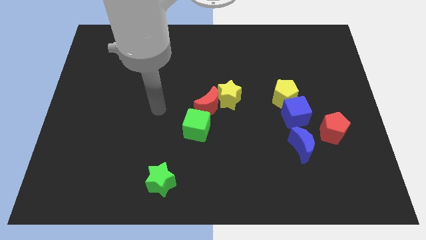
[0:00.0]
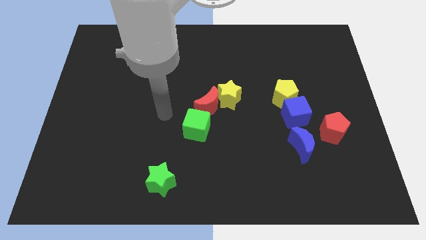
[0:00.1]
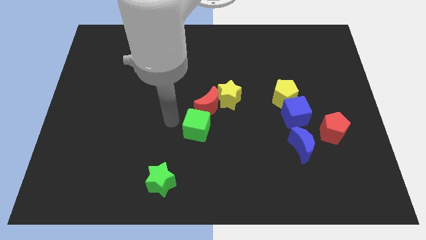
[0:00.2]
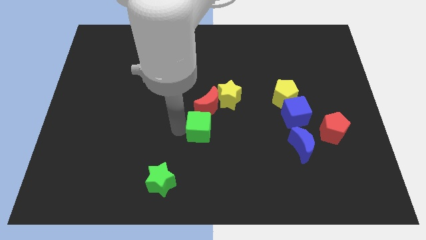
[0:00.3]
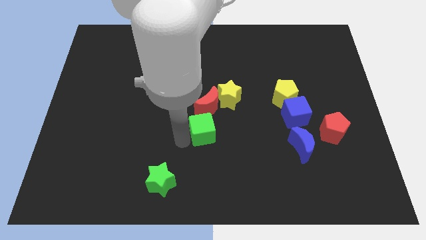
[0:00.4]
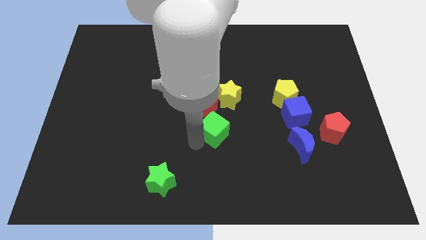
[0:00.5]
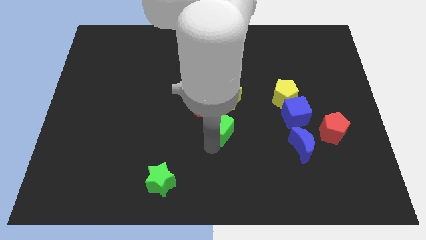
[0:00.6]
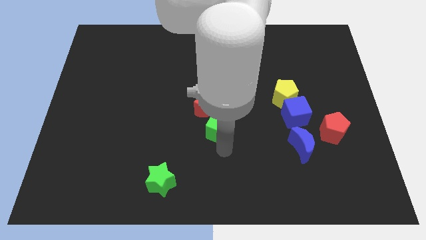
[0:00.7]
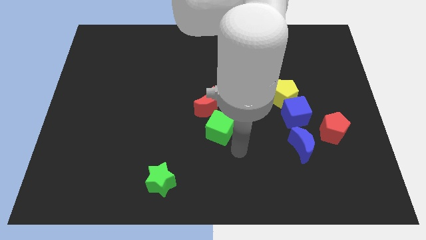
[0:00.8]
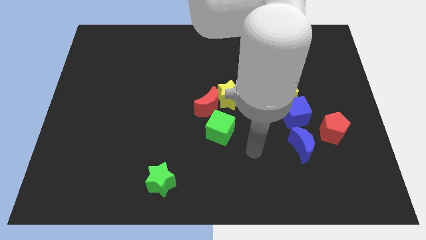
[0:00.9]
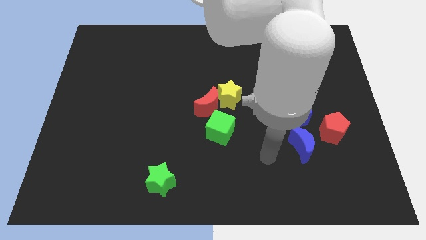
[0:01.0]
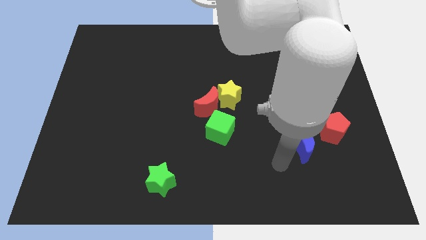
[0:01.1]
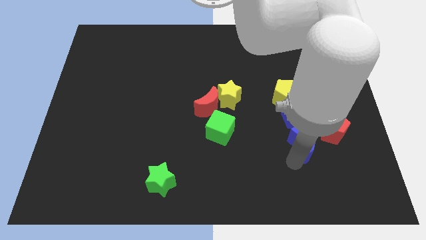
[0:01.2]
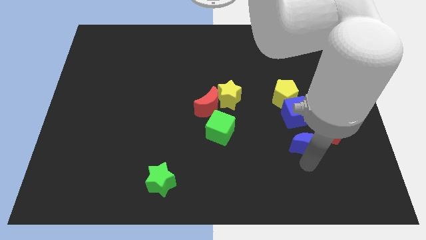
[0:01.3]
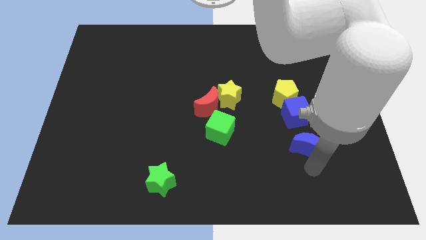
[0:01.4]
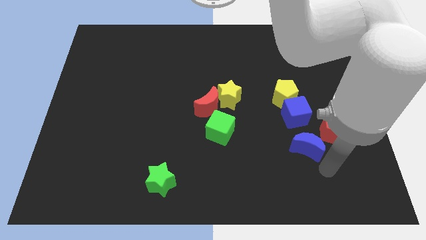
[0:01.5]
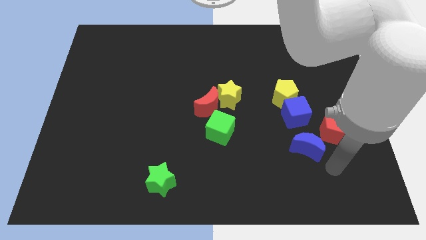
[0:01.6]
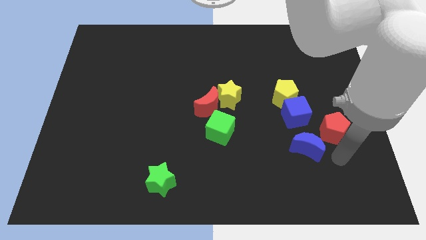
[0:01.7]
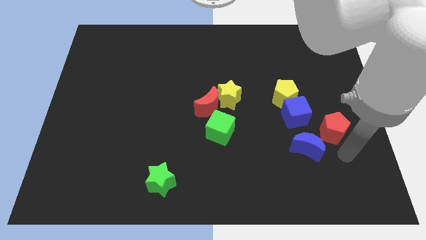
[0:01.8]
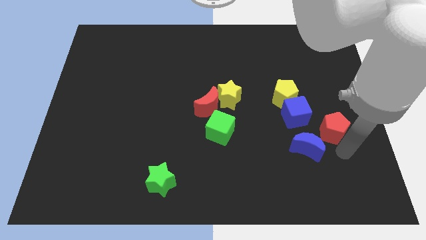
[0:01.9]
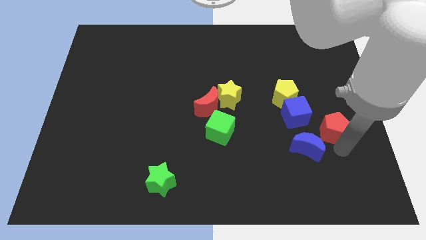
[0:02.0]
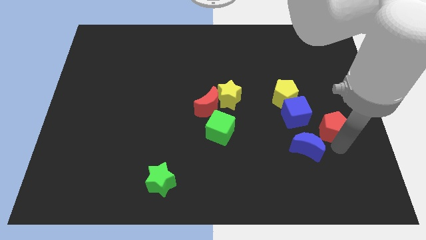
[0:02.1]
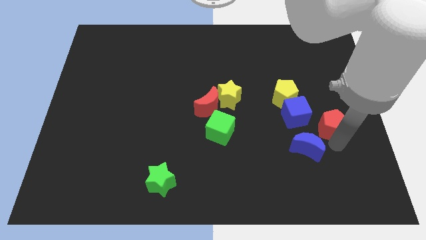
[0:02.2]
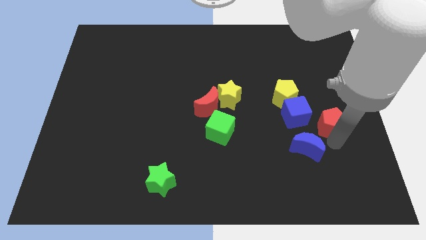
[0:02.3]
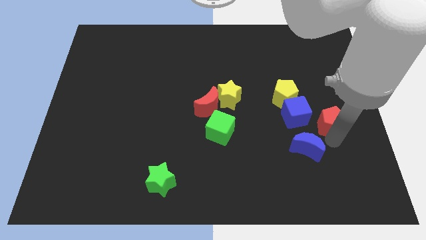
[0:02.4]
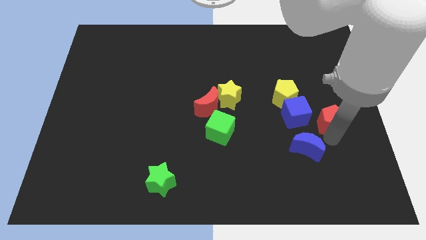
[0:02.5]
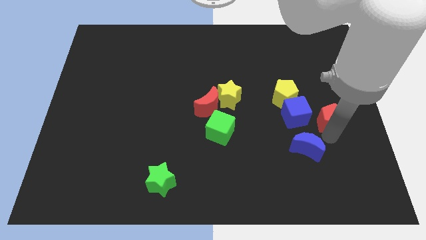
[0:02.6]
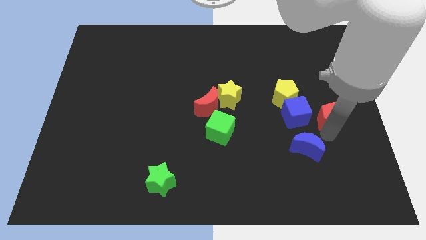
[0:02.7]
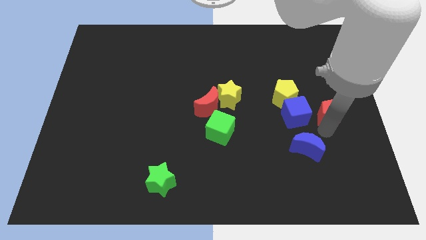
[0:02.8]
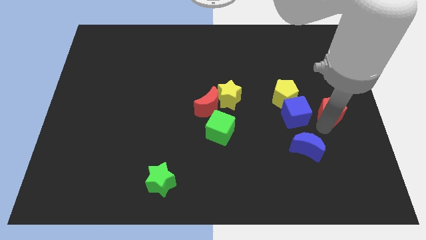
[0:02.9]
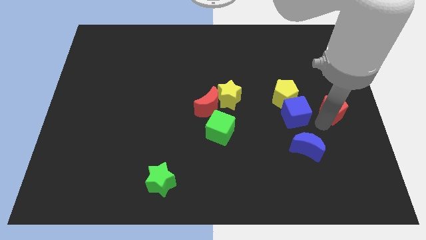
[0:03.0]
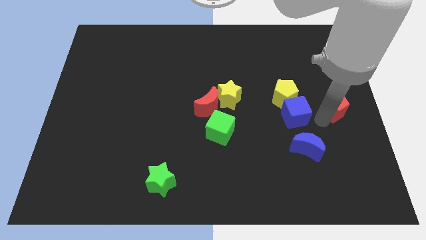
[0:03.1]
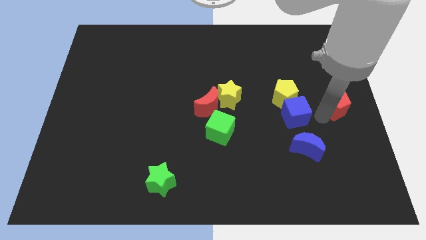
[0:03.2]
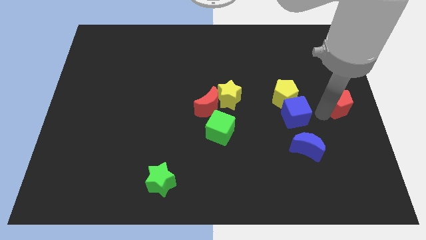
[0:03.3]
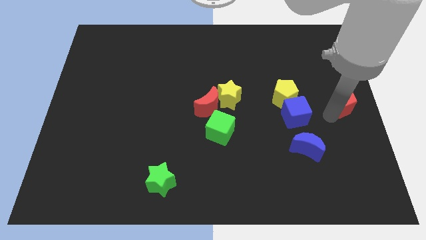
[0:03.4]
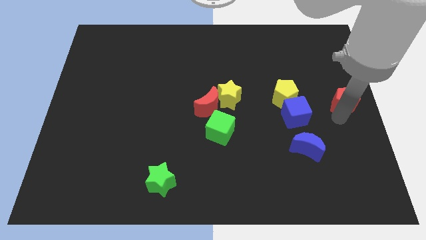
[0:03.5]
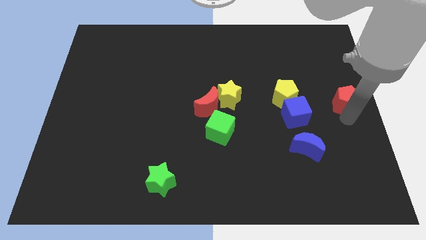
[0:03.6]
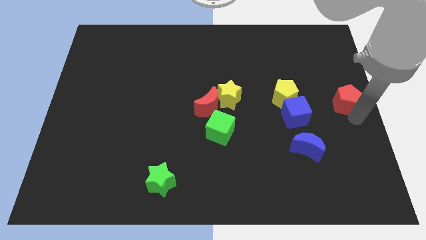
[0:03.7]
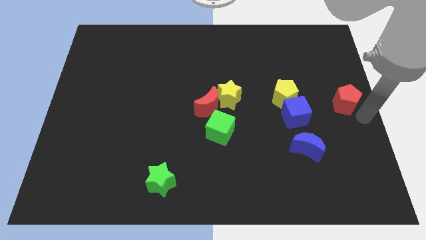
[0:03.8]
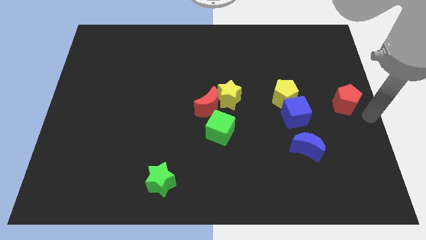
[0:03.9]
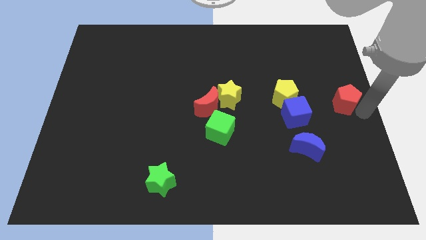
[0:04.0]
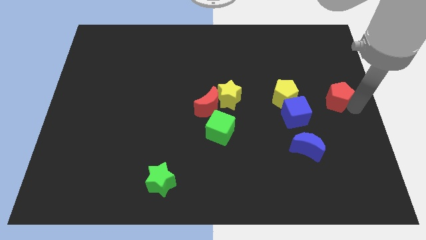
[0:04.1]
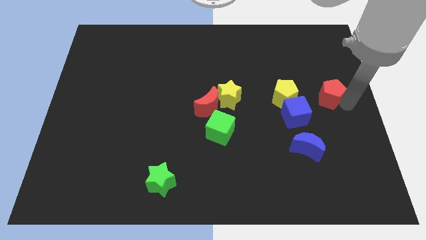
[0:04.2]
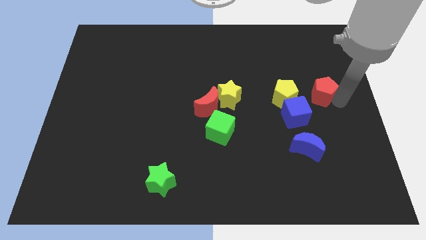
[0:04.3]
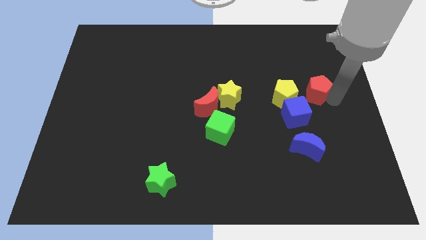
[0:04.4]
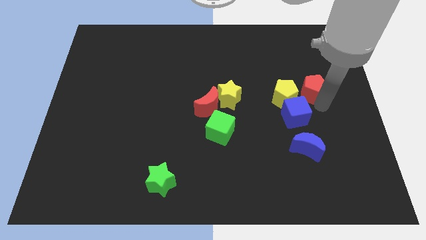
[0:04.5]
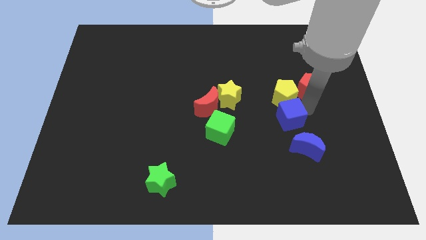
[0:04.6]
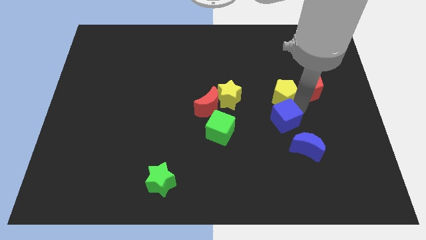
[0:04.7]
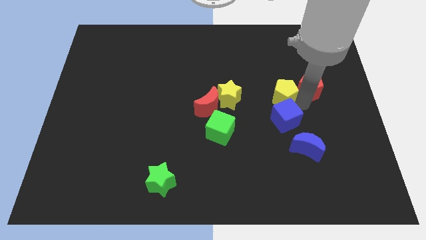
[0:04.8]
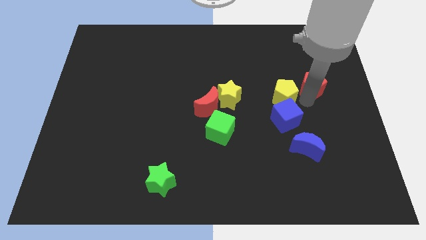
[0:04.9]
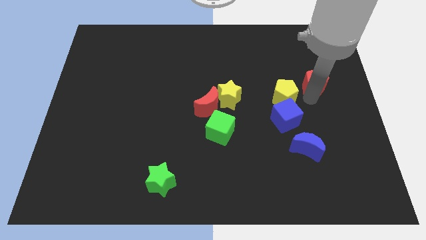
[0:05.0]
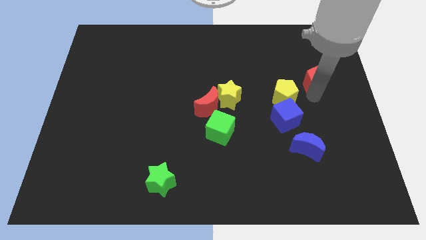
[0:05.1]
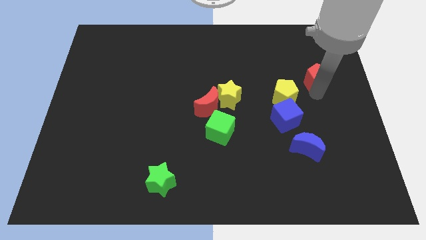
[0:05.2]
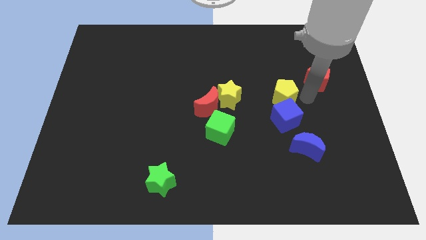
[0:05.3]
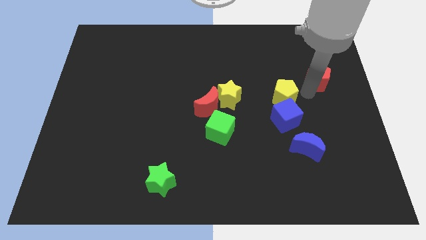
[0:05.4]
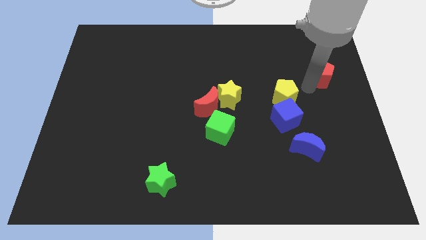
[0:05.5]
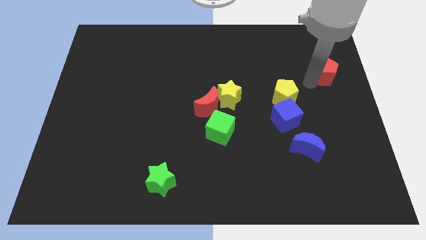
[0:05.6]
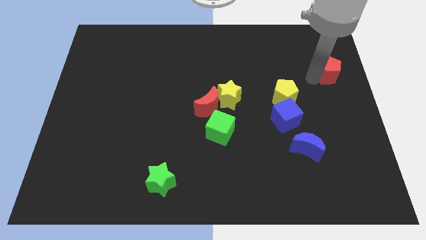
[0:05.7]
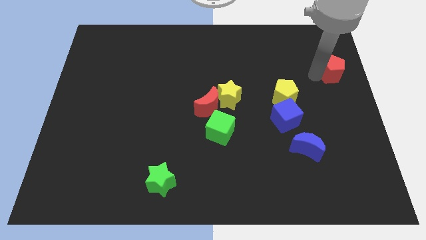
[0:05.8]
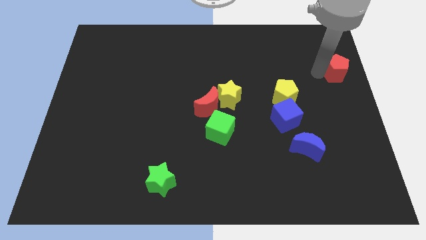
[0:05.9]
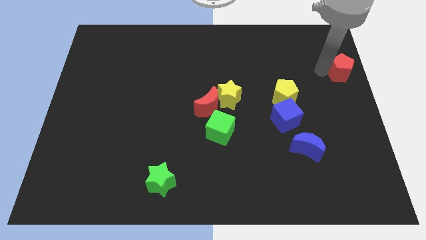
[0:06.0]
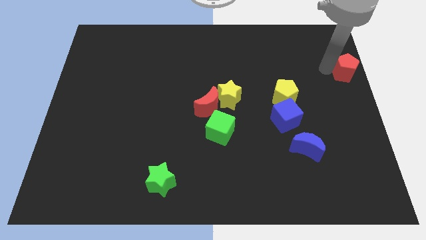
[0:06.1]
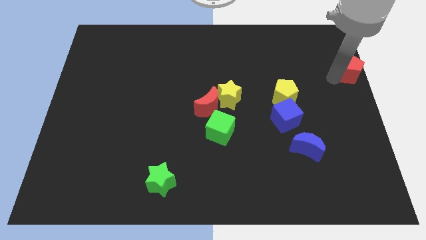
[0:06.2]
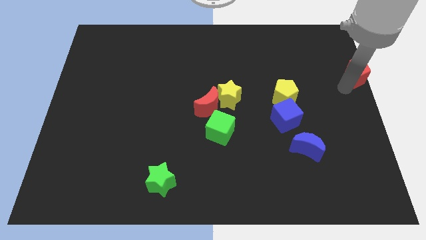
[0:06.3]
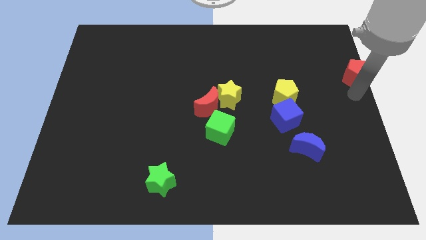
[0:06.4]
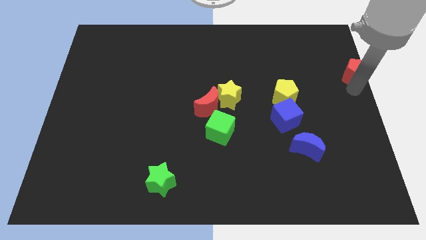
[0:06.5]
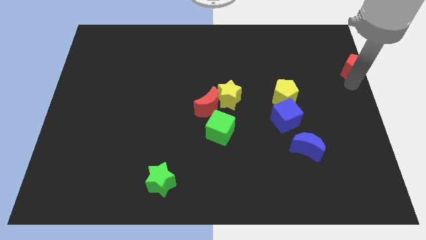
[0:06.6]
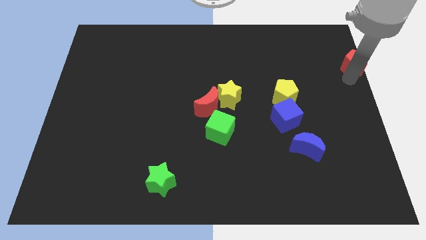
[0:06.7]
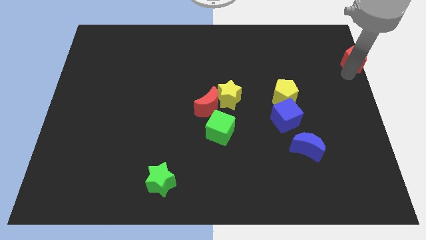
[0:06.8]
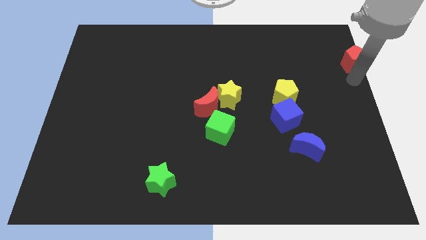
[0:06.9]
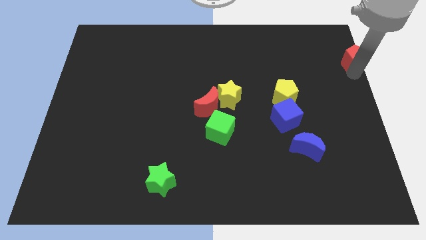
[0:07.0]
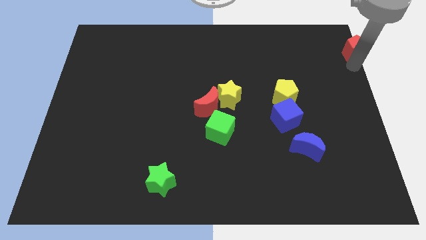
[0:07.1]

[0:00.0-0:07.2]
move the red pentagon to the top right
